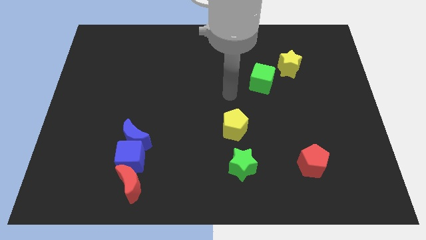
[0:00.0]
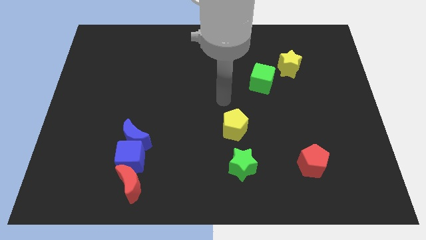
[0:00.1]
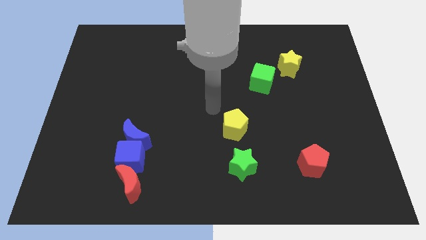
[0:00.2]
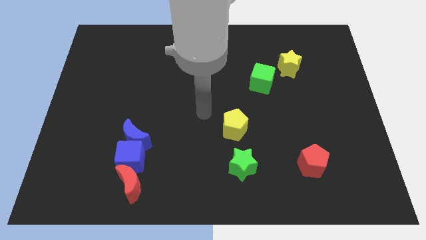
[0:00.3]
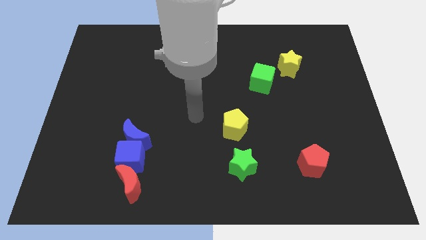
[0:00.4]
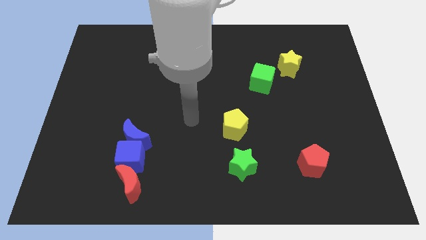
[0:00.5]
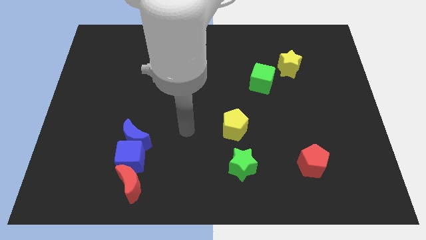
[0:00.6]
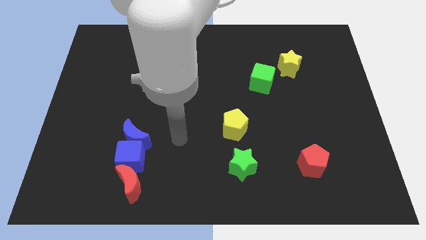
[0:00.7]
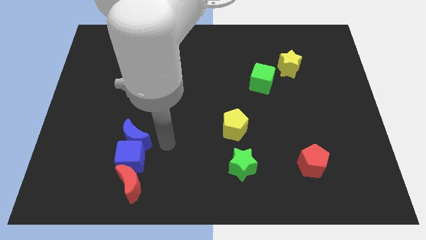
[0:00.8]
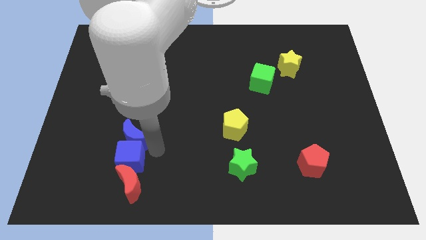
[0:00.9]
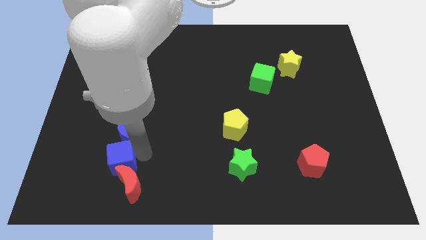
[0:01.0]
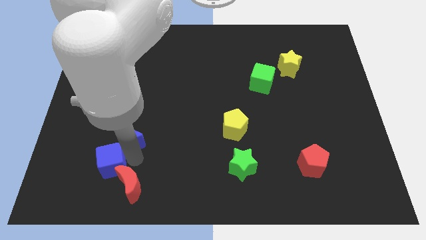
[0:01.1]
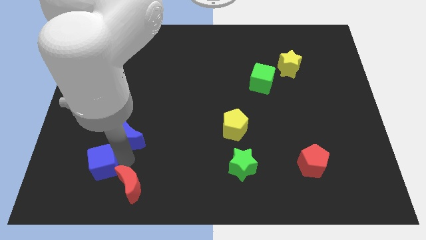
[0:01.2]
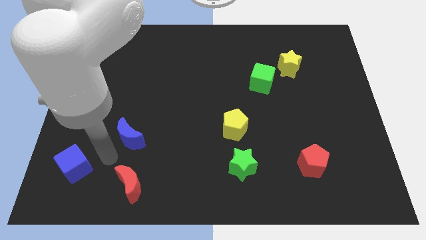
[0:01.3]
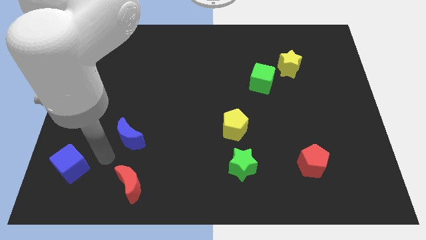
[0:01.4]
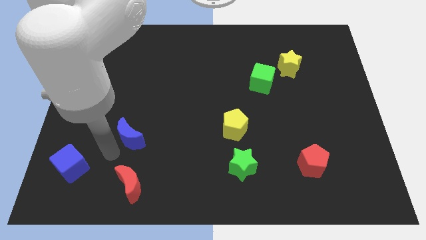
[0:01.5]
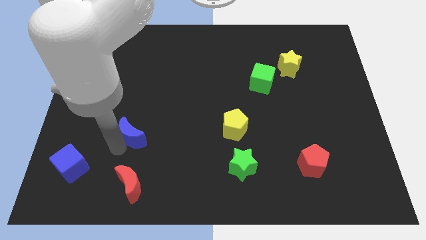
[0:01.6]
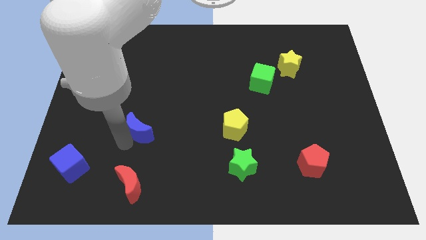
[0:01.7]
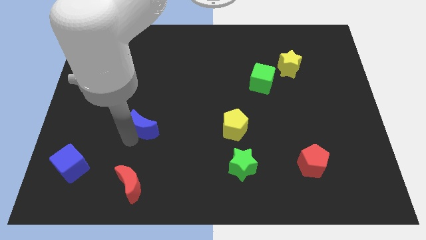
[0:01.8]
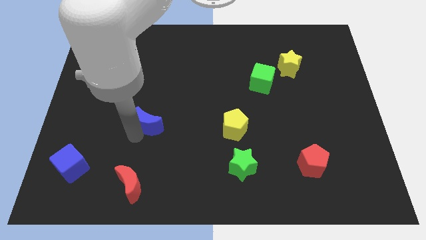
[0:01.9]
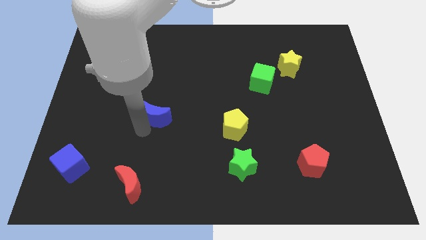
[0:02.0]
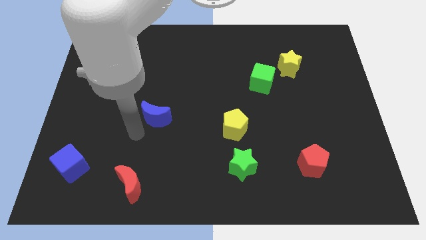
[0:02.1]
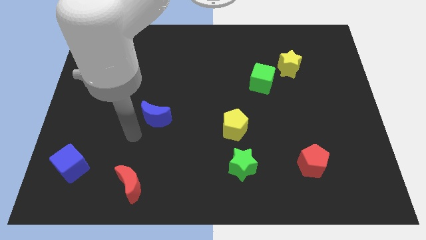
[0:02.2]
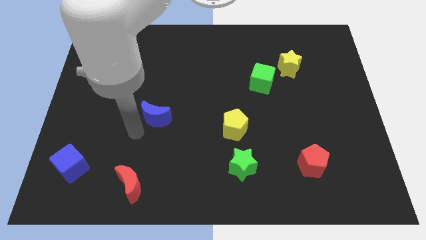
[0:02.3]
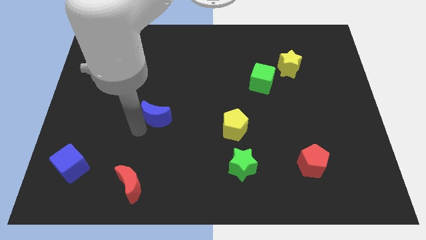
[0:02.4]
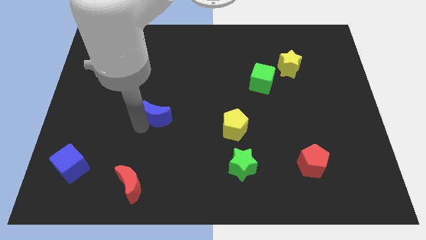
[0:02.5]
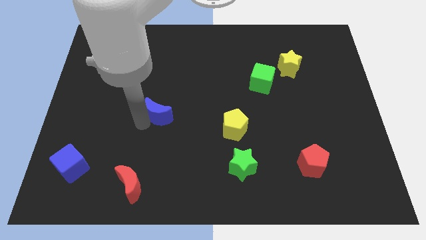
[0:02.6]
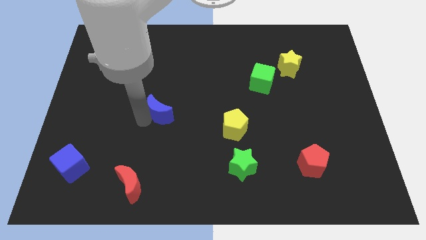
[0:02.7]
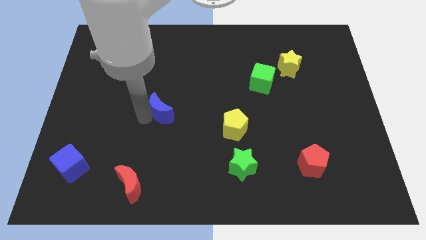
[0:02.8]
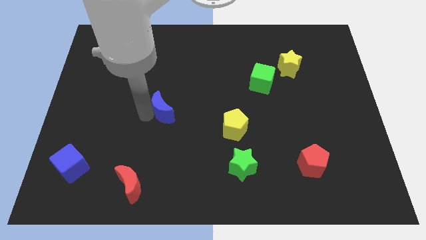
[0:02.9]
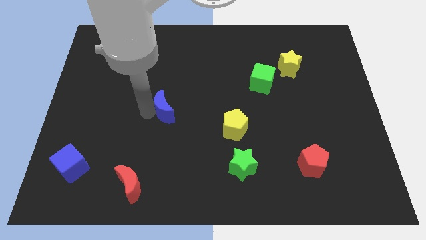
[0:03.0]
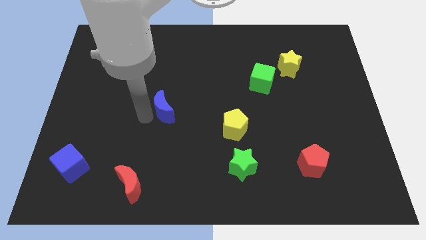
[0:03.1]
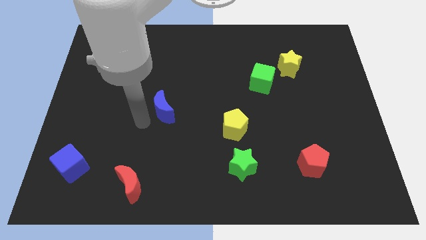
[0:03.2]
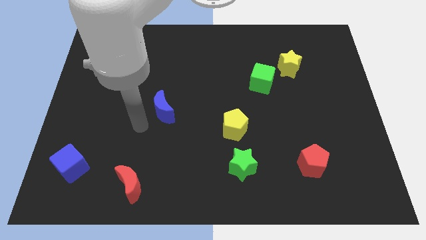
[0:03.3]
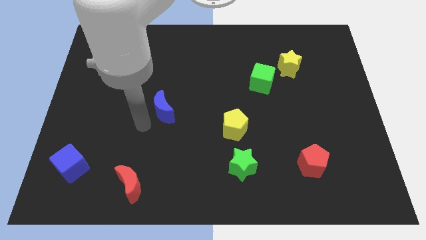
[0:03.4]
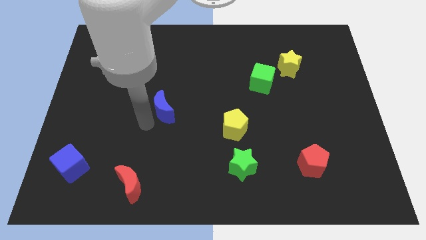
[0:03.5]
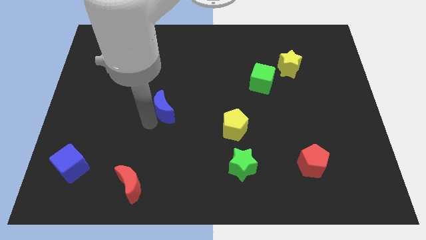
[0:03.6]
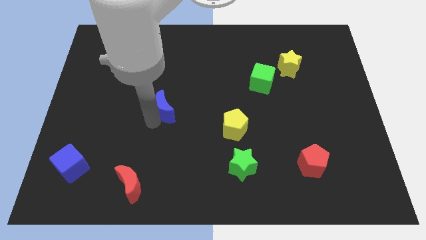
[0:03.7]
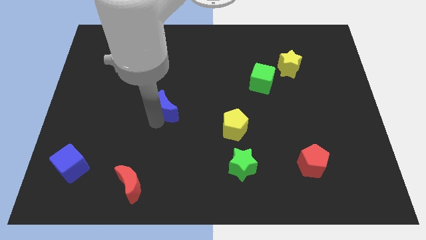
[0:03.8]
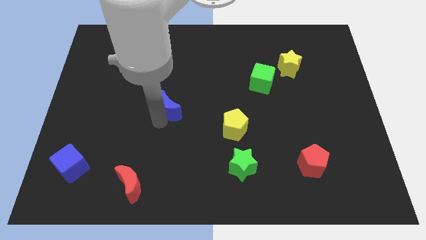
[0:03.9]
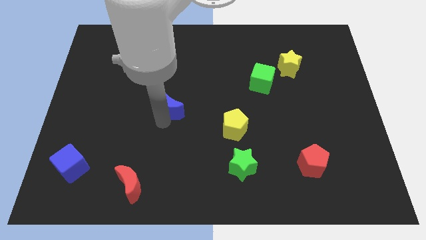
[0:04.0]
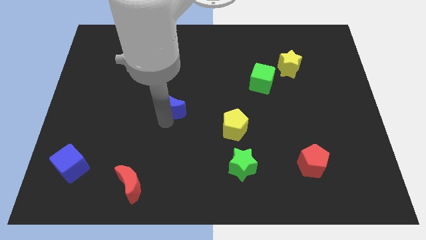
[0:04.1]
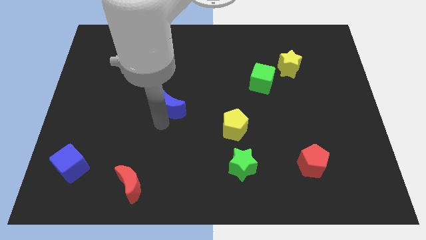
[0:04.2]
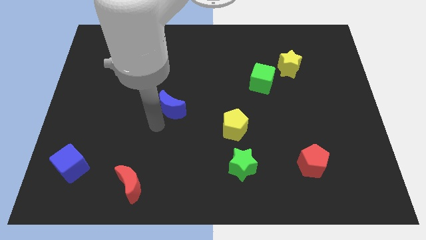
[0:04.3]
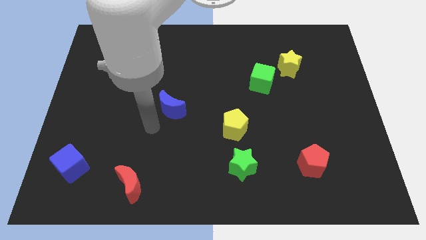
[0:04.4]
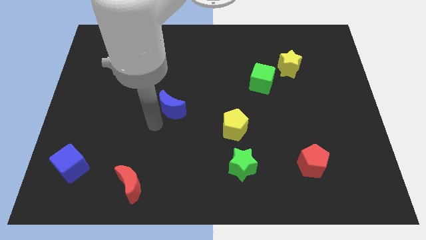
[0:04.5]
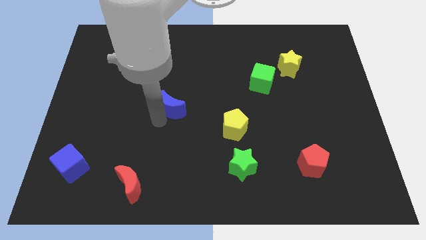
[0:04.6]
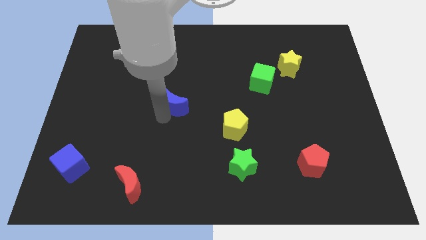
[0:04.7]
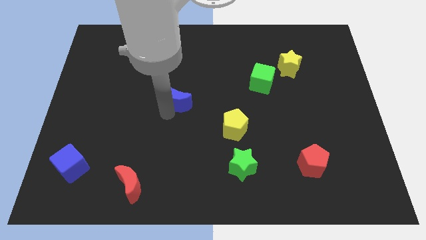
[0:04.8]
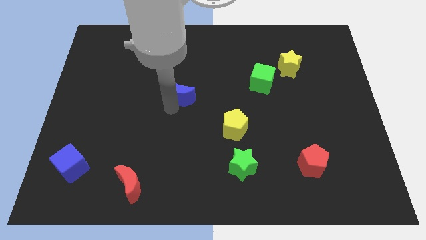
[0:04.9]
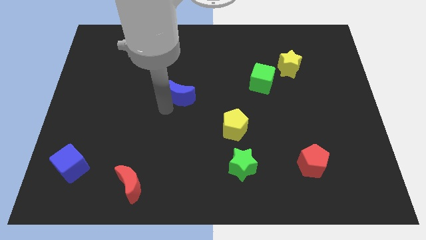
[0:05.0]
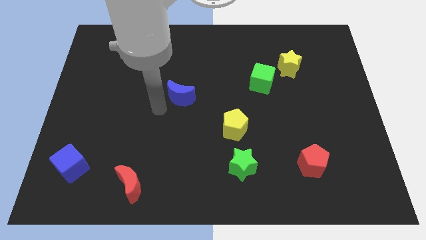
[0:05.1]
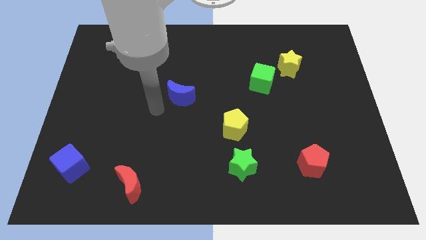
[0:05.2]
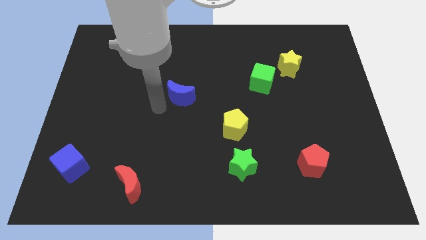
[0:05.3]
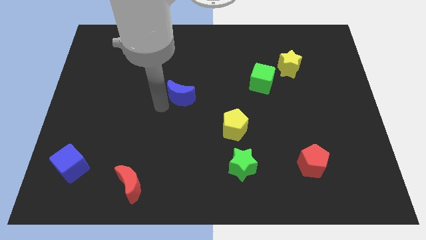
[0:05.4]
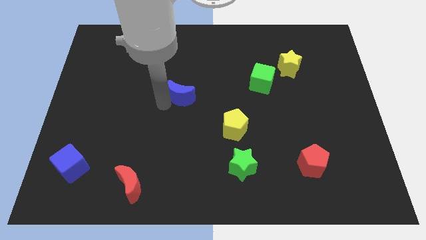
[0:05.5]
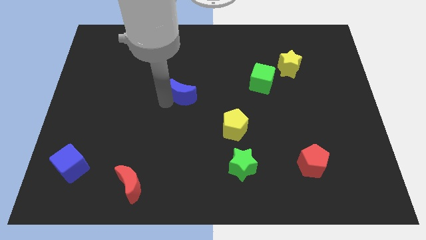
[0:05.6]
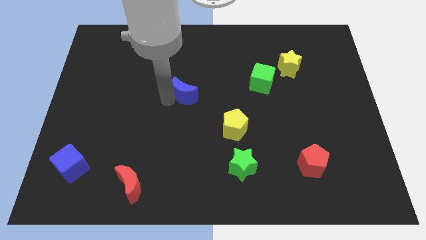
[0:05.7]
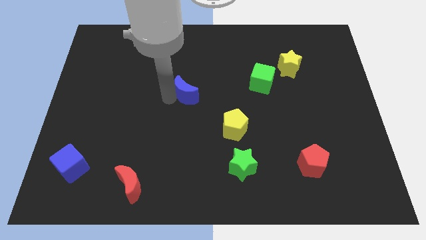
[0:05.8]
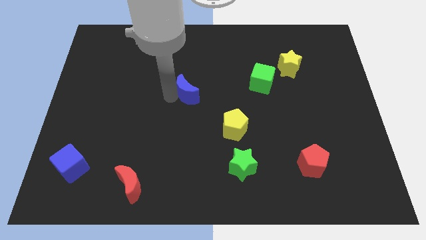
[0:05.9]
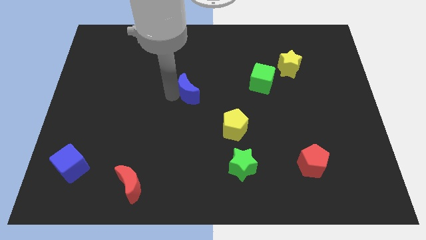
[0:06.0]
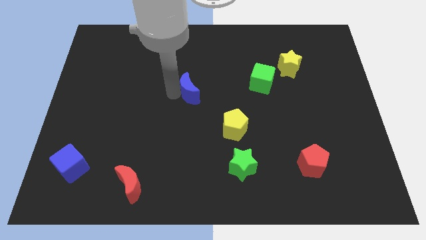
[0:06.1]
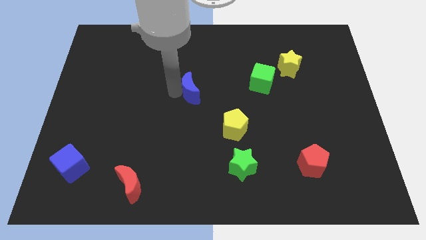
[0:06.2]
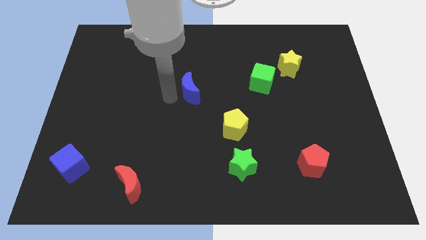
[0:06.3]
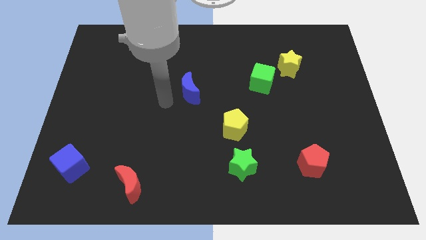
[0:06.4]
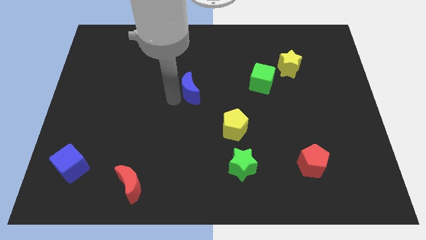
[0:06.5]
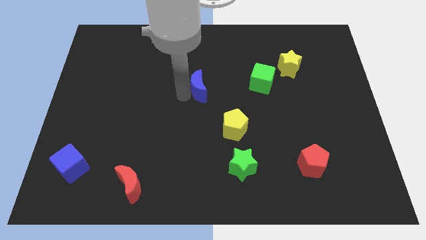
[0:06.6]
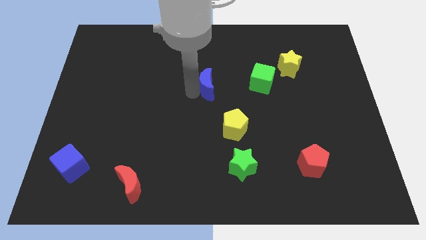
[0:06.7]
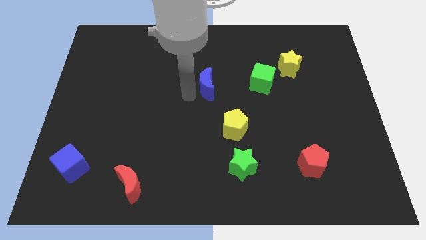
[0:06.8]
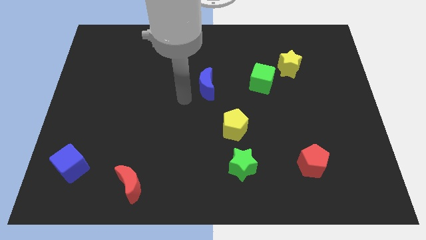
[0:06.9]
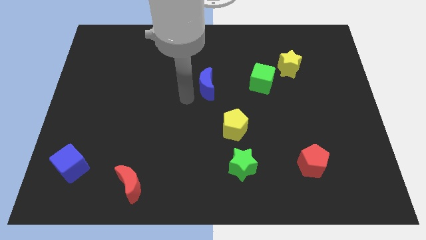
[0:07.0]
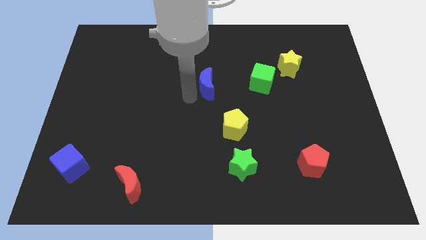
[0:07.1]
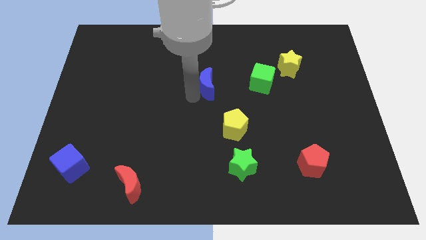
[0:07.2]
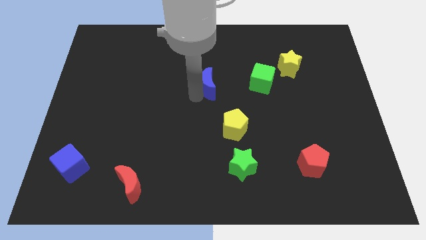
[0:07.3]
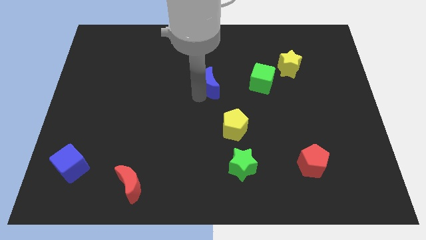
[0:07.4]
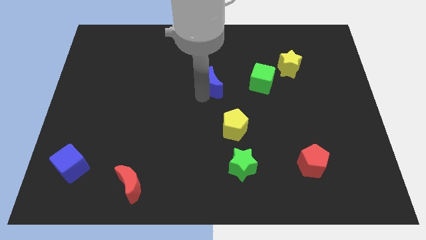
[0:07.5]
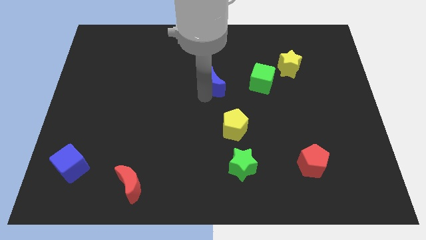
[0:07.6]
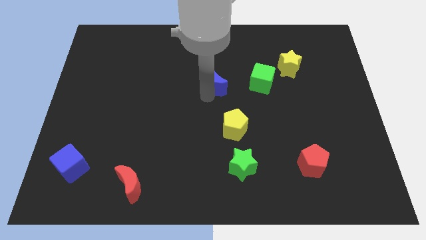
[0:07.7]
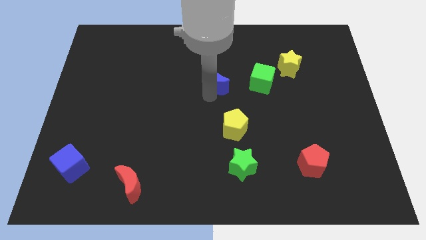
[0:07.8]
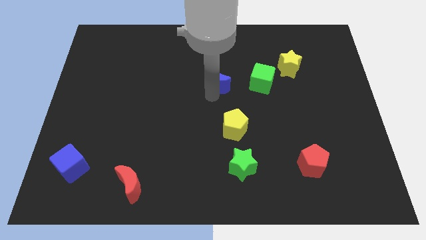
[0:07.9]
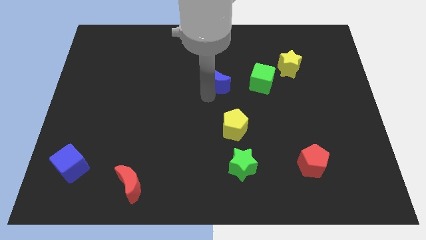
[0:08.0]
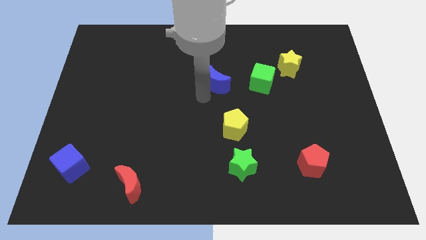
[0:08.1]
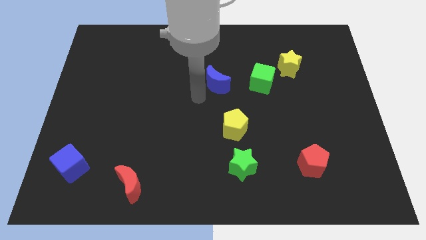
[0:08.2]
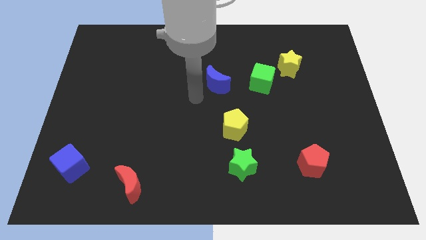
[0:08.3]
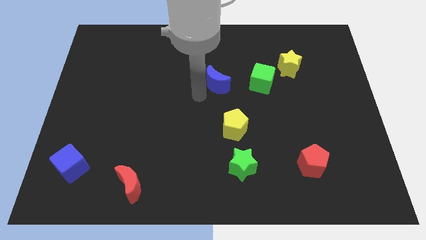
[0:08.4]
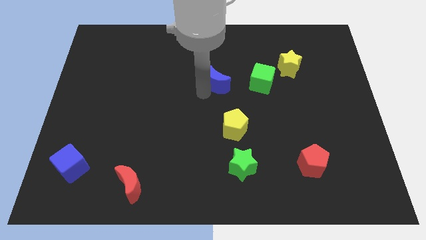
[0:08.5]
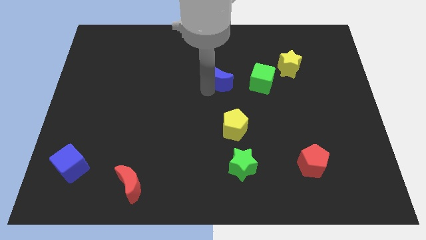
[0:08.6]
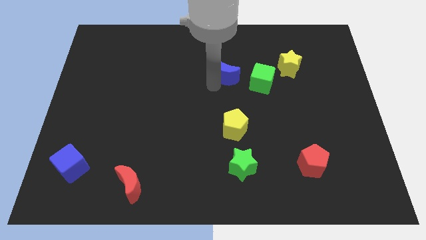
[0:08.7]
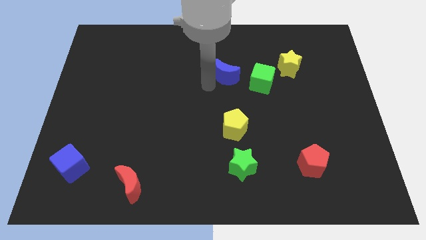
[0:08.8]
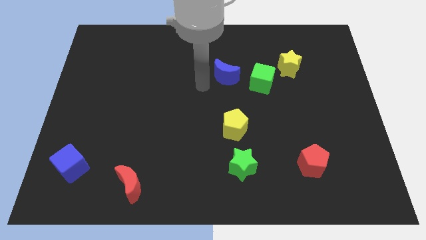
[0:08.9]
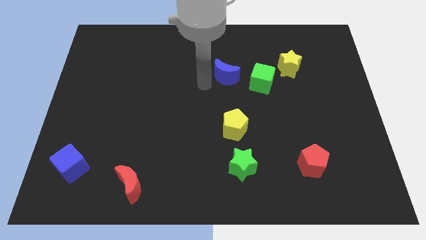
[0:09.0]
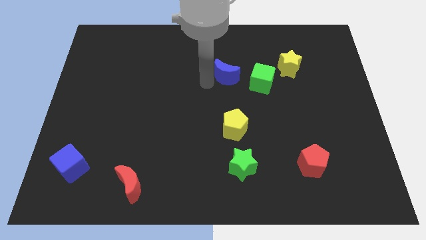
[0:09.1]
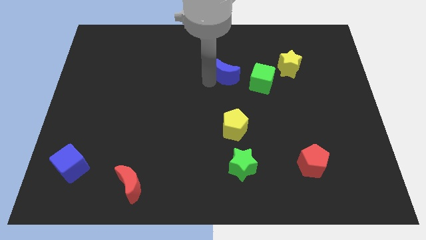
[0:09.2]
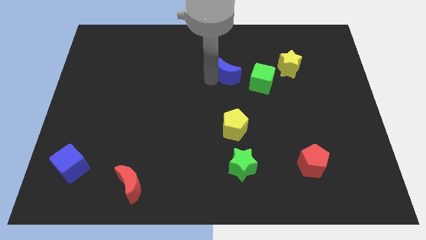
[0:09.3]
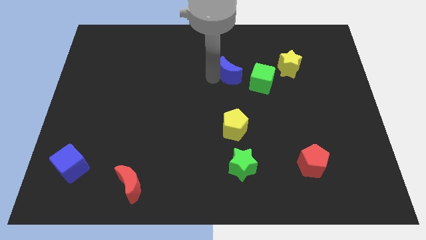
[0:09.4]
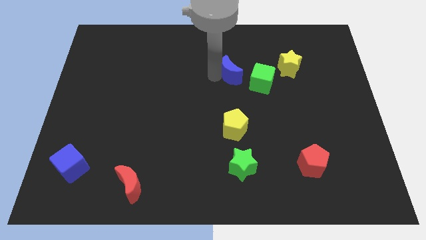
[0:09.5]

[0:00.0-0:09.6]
move the blue moon to the left of the yellow star
